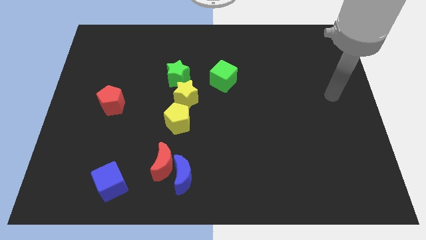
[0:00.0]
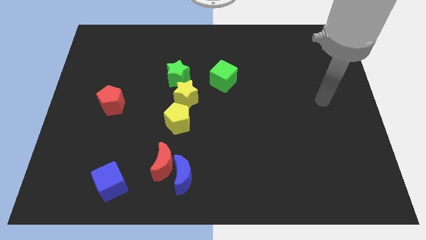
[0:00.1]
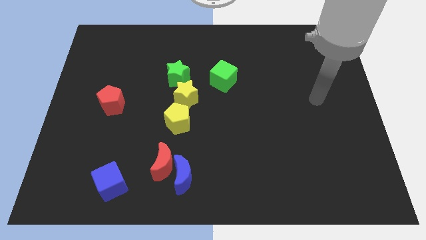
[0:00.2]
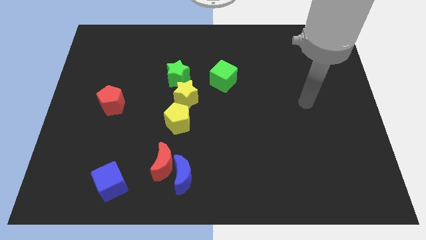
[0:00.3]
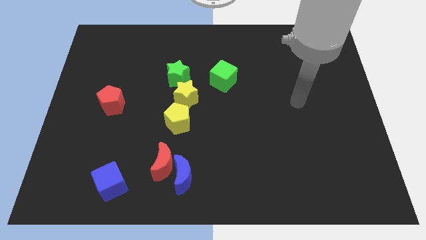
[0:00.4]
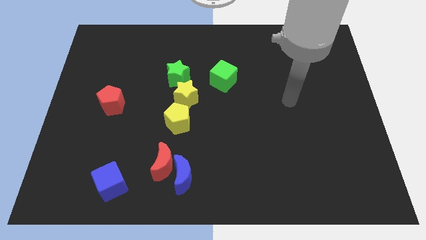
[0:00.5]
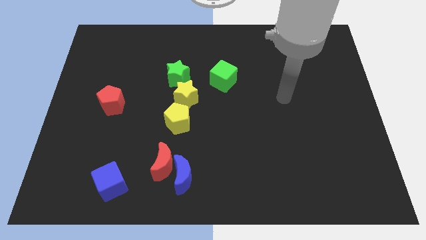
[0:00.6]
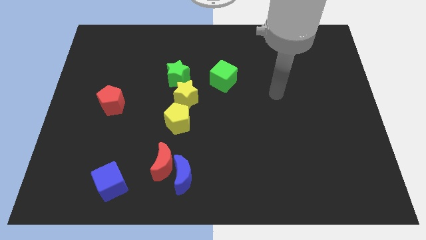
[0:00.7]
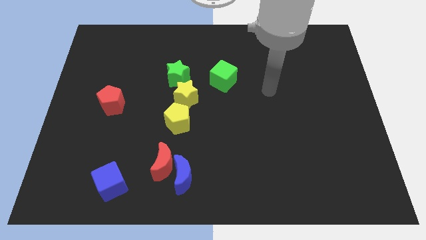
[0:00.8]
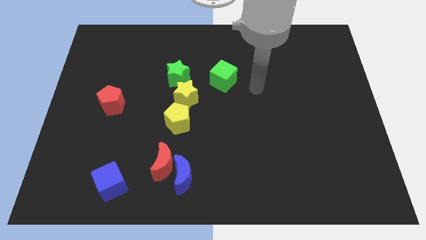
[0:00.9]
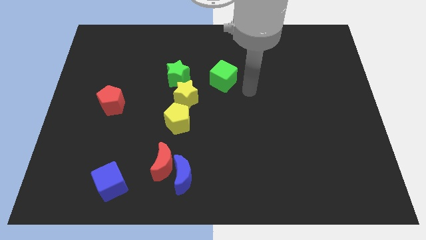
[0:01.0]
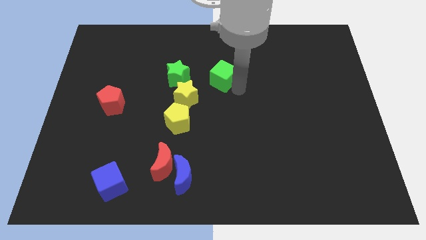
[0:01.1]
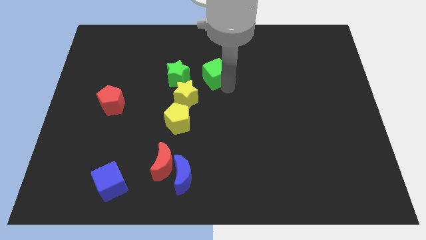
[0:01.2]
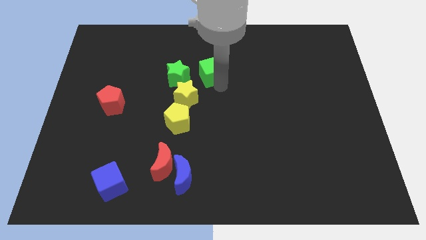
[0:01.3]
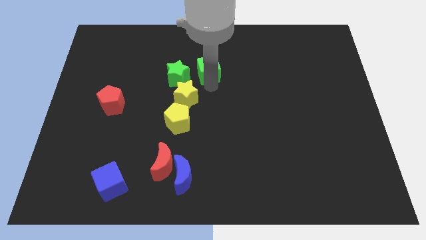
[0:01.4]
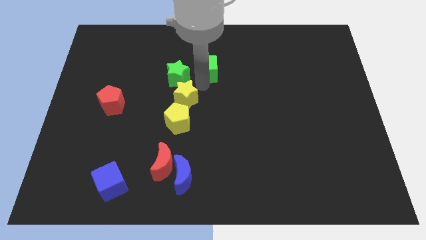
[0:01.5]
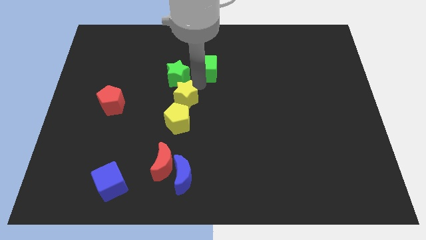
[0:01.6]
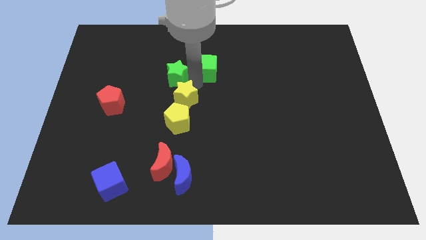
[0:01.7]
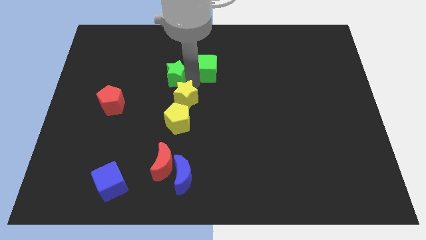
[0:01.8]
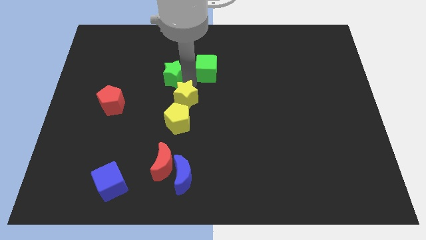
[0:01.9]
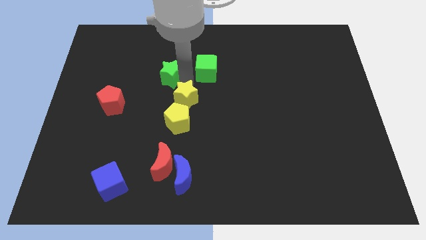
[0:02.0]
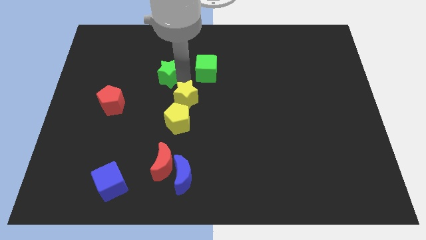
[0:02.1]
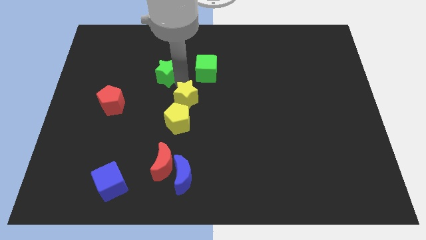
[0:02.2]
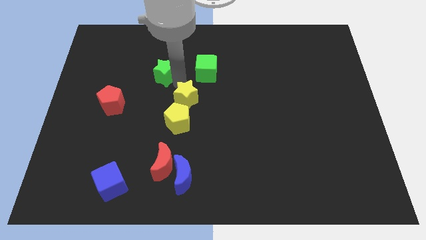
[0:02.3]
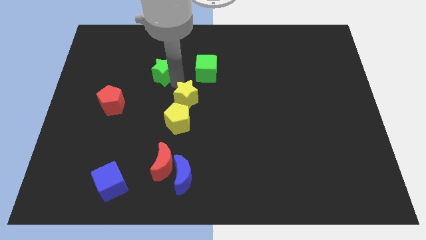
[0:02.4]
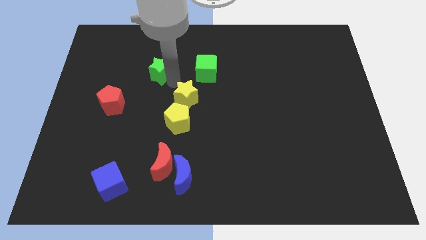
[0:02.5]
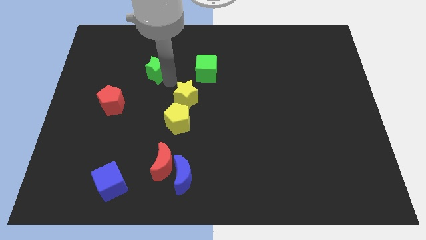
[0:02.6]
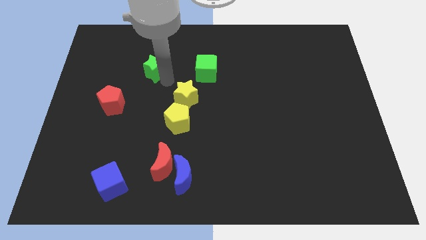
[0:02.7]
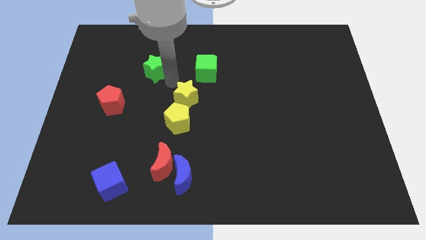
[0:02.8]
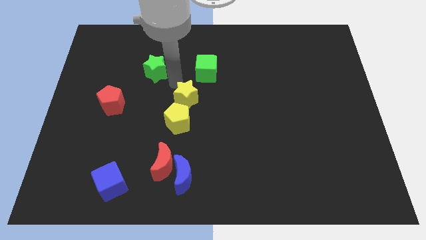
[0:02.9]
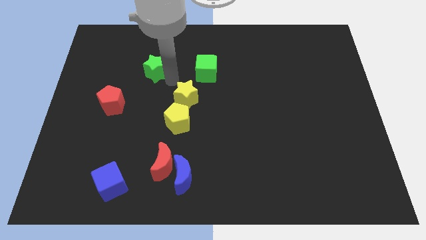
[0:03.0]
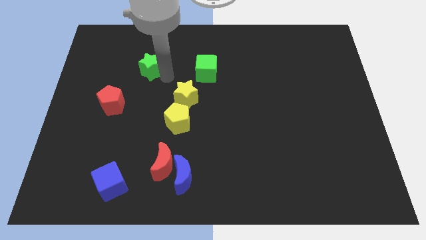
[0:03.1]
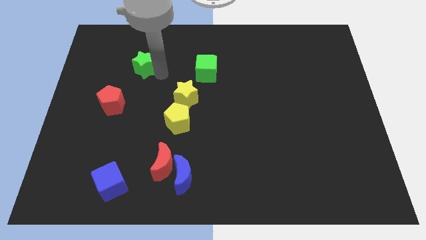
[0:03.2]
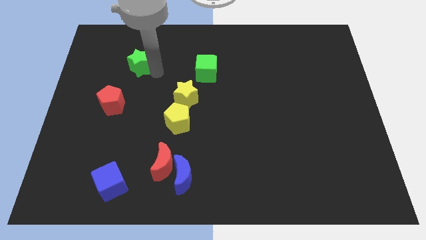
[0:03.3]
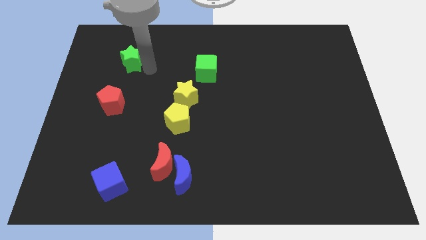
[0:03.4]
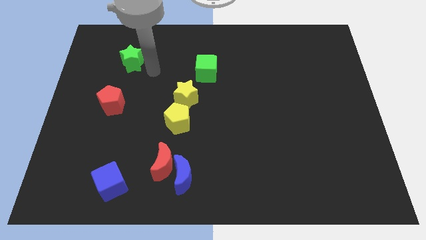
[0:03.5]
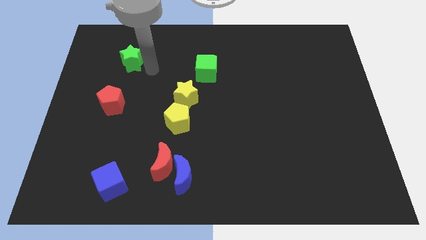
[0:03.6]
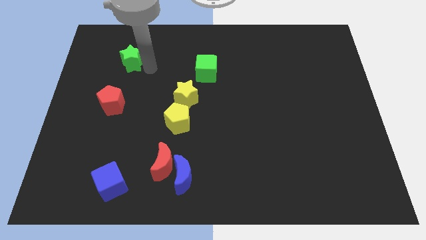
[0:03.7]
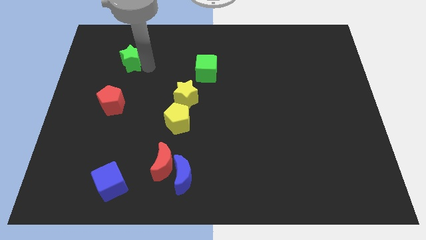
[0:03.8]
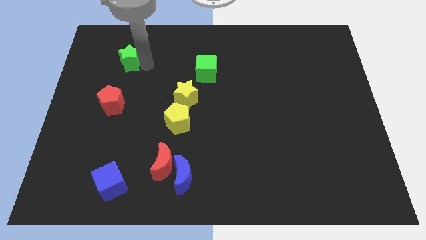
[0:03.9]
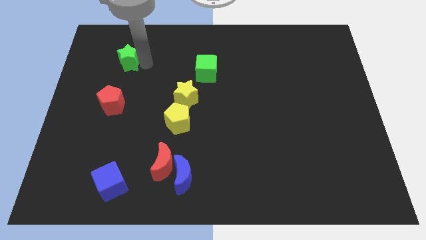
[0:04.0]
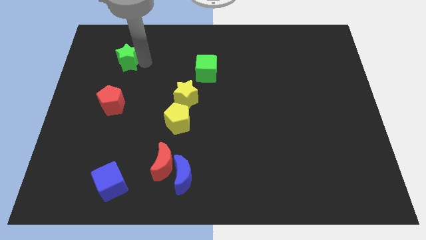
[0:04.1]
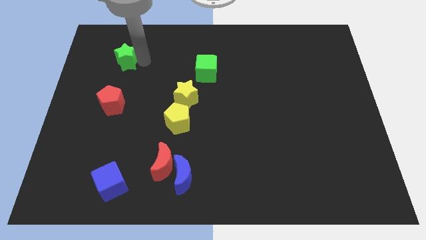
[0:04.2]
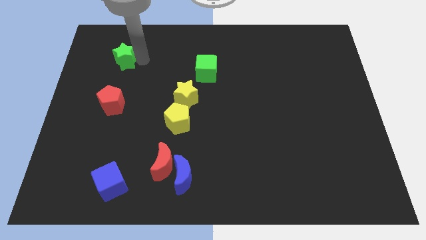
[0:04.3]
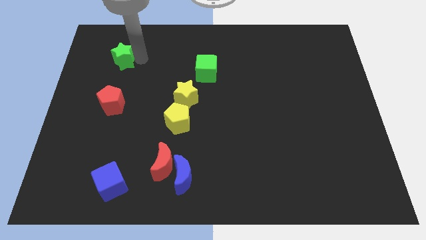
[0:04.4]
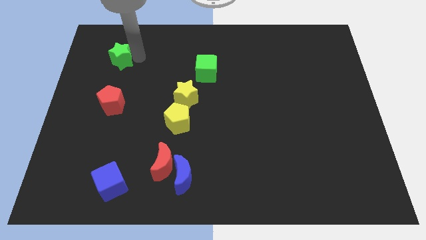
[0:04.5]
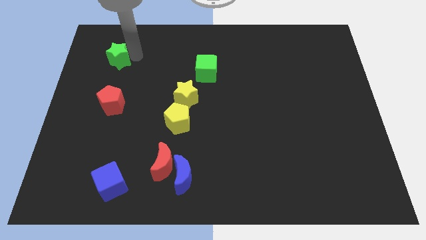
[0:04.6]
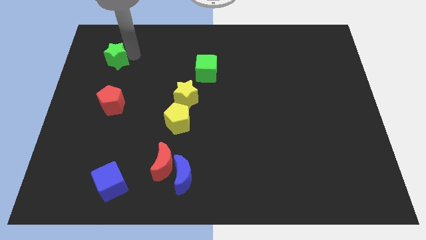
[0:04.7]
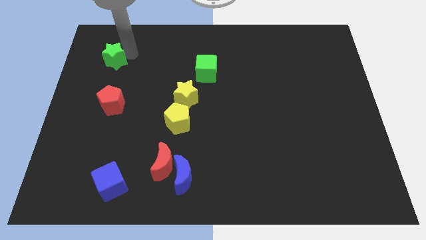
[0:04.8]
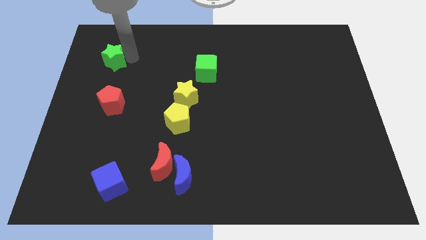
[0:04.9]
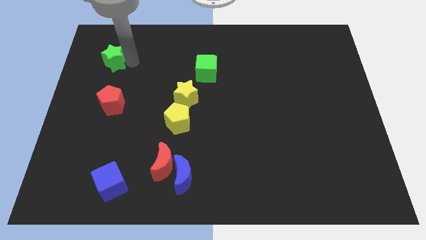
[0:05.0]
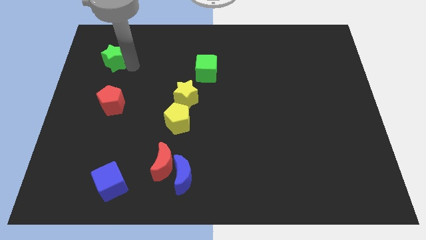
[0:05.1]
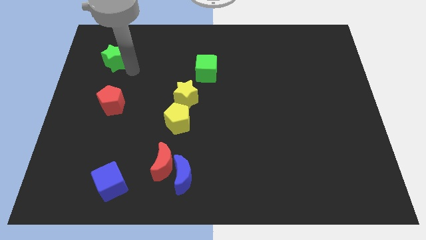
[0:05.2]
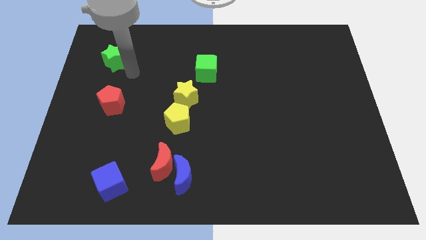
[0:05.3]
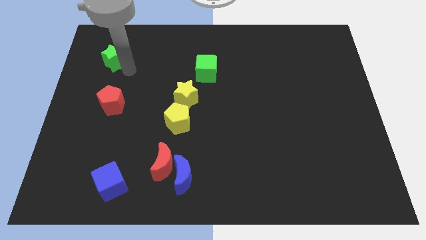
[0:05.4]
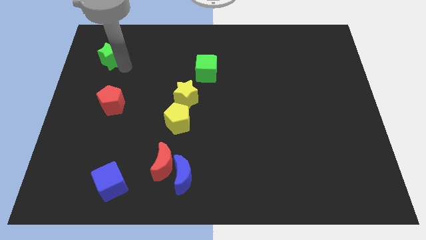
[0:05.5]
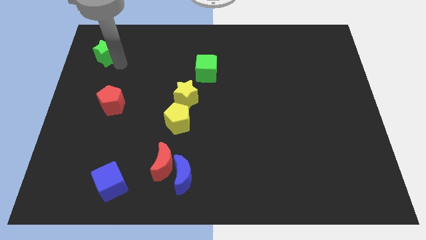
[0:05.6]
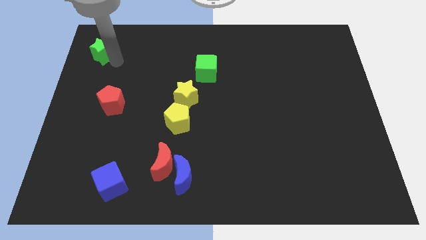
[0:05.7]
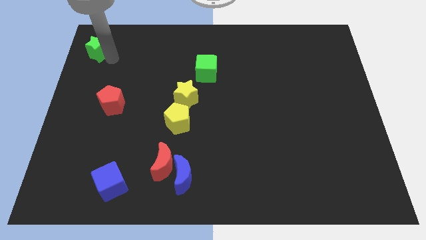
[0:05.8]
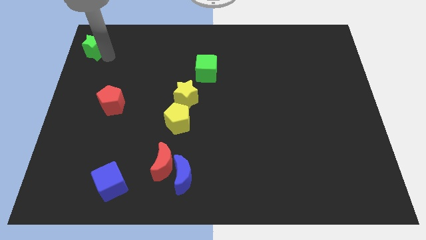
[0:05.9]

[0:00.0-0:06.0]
slide the green star to the top left
